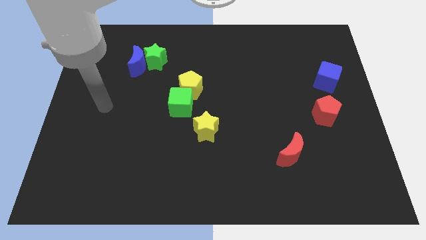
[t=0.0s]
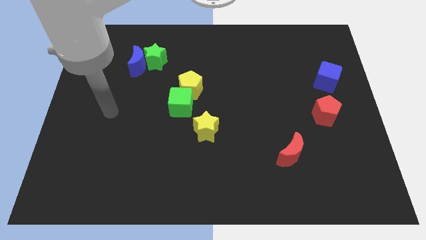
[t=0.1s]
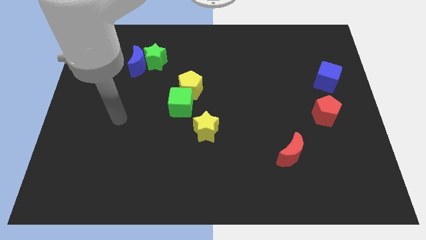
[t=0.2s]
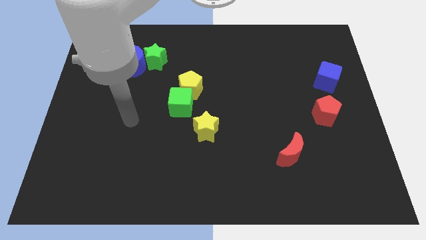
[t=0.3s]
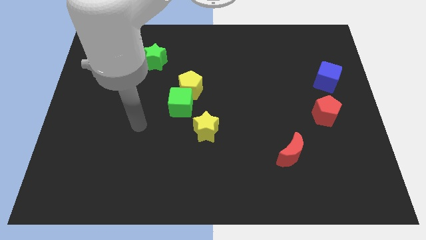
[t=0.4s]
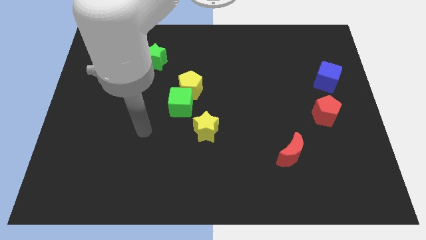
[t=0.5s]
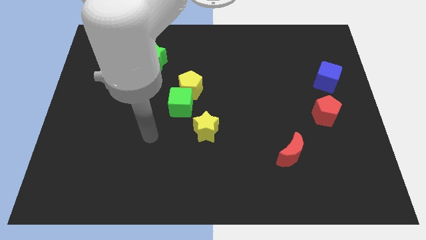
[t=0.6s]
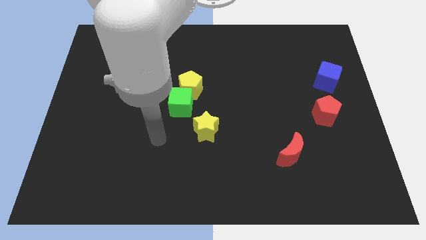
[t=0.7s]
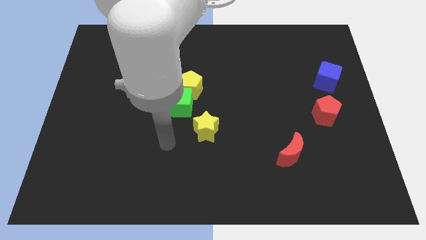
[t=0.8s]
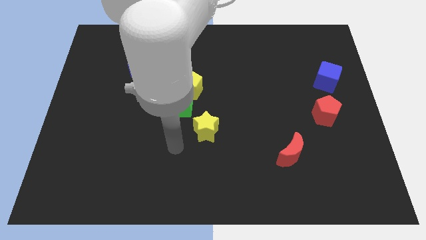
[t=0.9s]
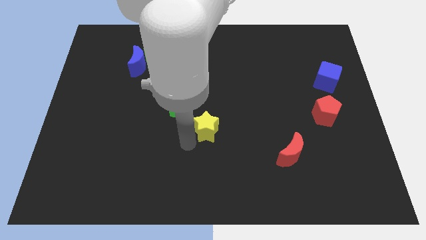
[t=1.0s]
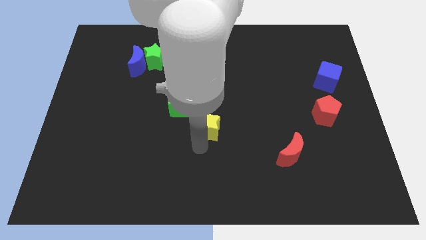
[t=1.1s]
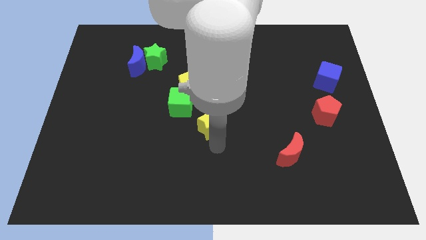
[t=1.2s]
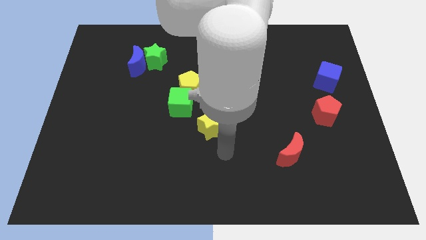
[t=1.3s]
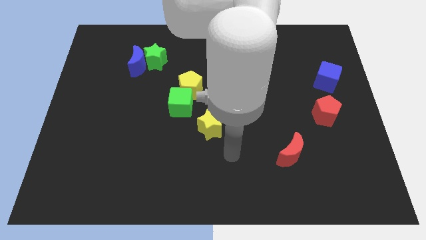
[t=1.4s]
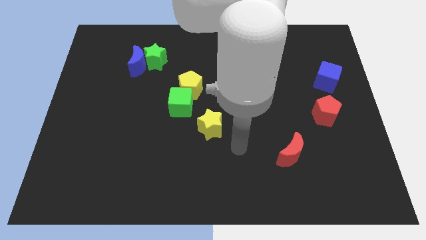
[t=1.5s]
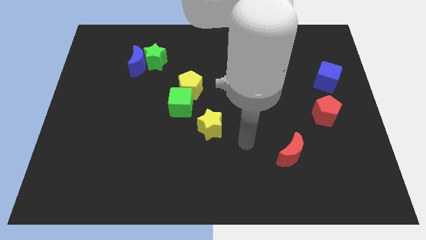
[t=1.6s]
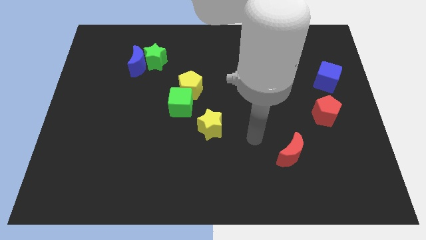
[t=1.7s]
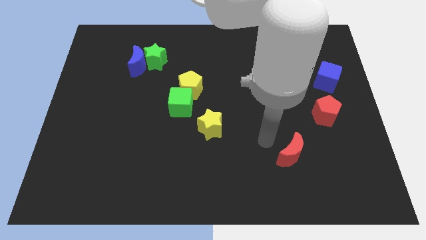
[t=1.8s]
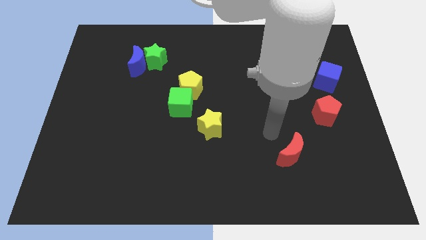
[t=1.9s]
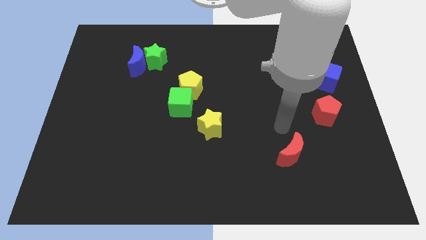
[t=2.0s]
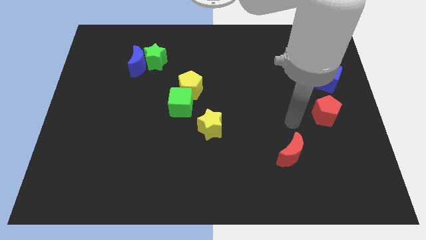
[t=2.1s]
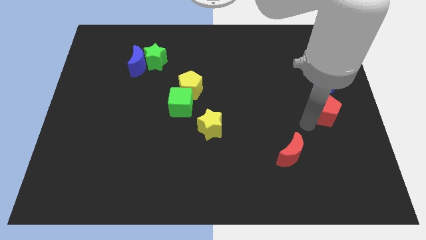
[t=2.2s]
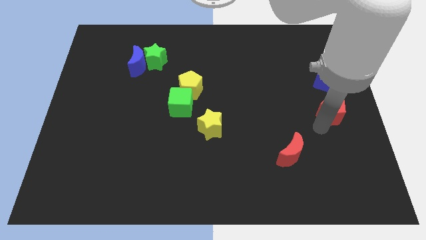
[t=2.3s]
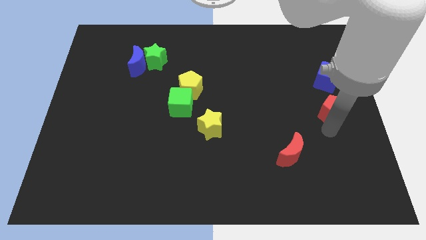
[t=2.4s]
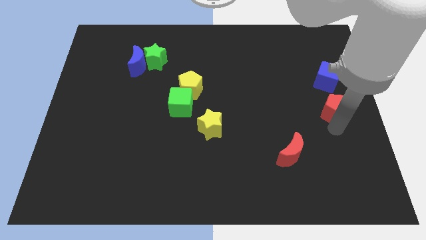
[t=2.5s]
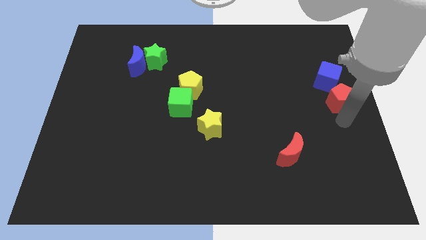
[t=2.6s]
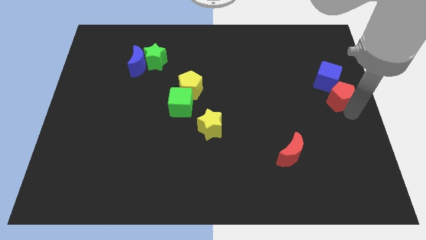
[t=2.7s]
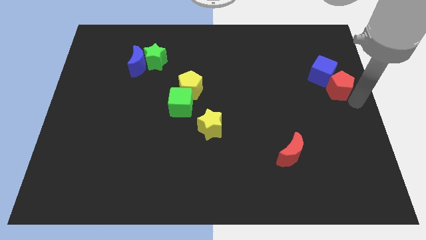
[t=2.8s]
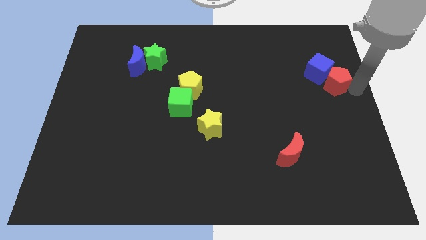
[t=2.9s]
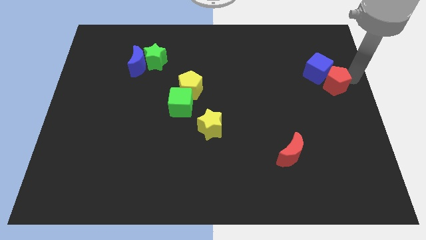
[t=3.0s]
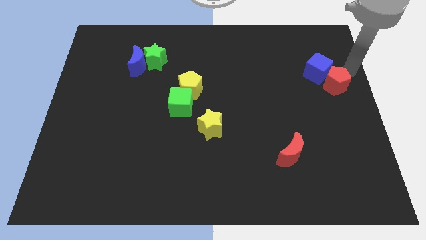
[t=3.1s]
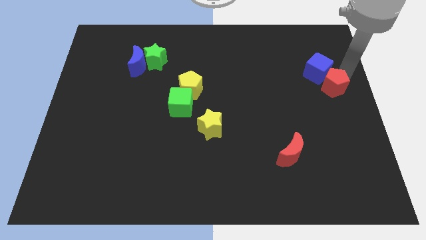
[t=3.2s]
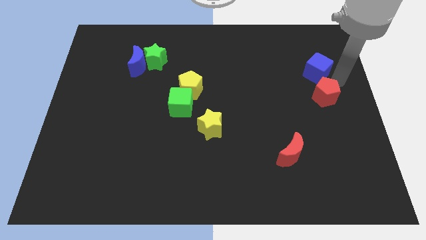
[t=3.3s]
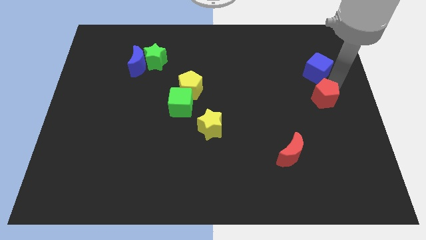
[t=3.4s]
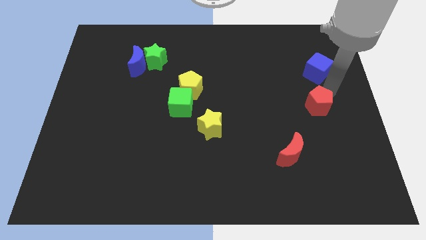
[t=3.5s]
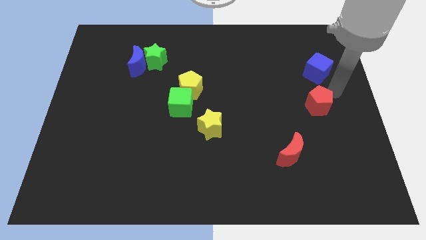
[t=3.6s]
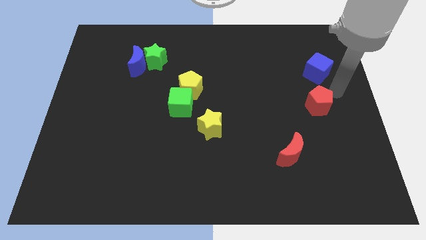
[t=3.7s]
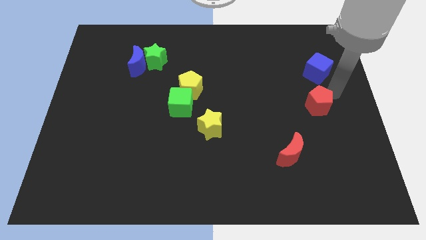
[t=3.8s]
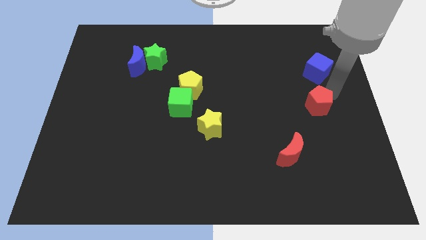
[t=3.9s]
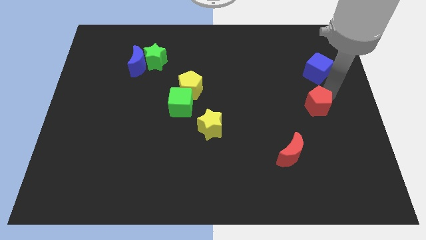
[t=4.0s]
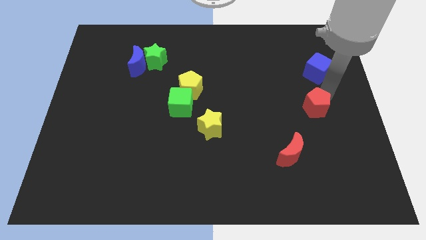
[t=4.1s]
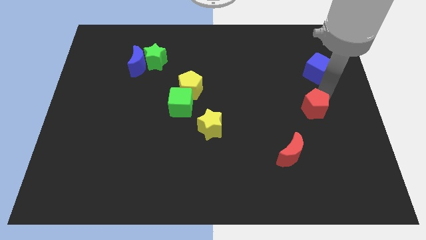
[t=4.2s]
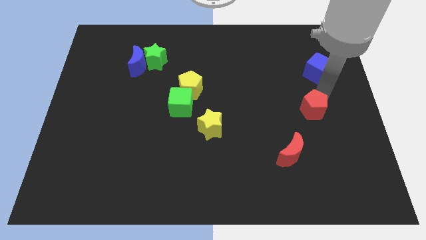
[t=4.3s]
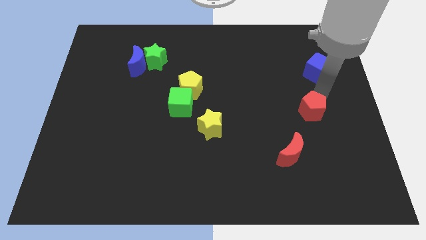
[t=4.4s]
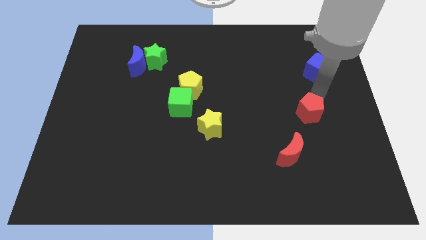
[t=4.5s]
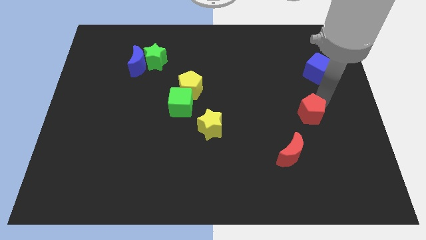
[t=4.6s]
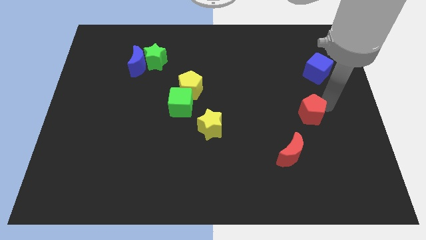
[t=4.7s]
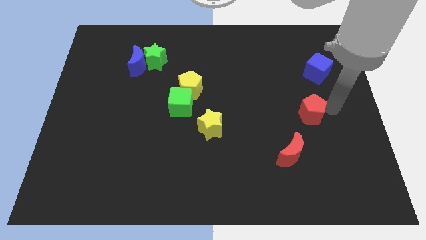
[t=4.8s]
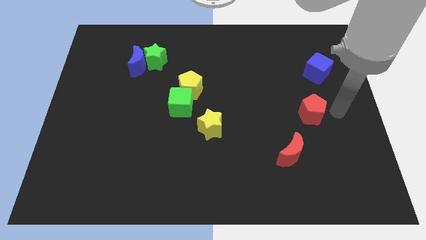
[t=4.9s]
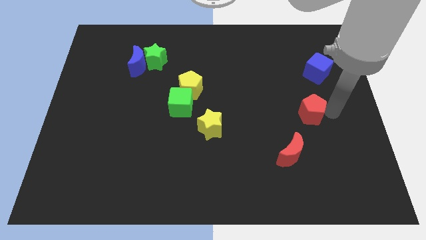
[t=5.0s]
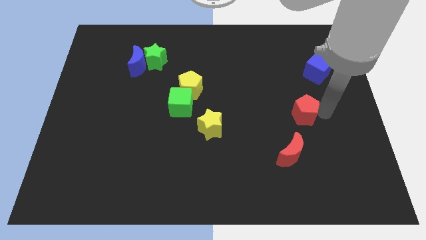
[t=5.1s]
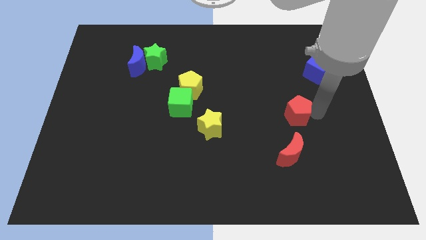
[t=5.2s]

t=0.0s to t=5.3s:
move the red pentagon left a little bit

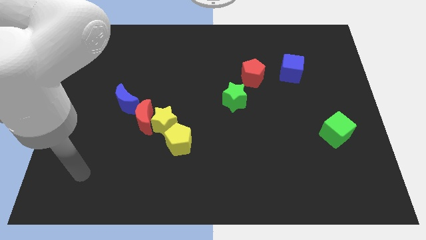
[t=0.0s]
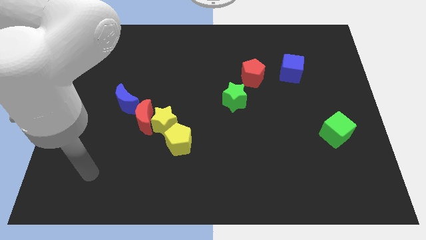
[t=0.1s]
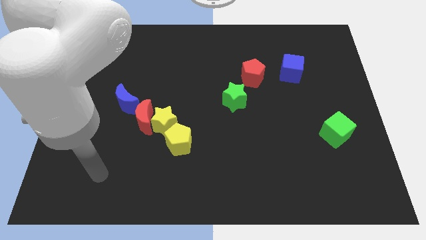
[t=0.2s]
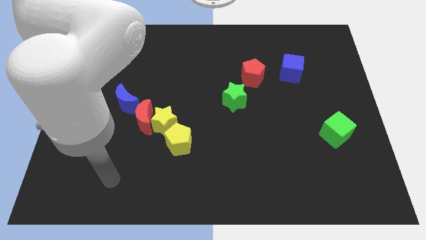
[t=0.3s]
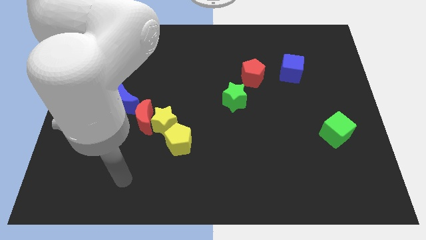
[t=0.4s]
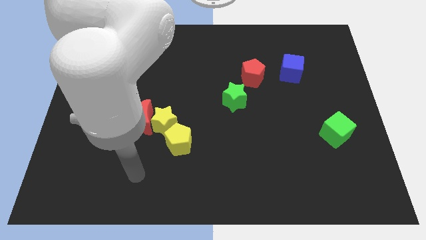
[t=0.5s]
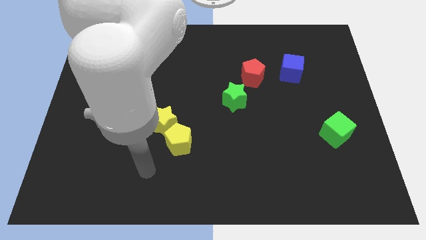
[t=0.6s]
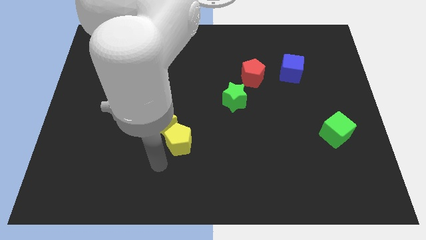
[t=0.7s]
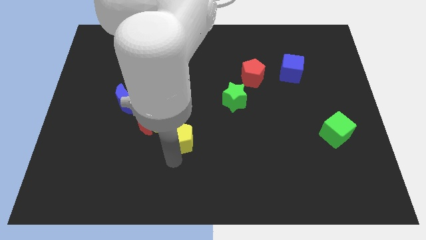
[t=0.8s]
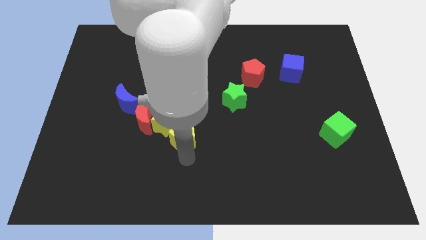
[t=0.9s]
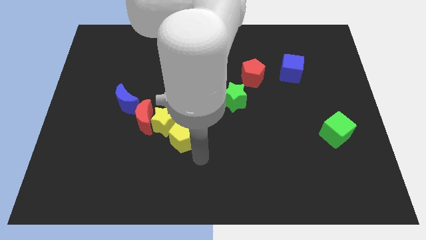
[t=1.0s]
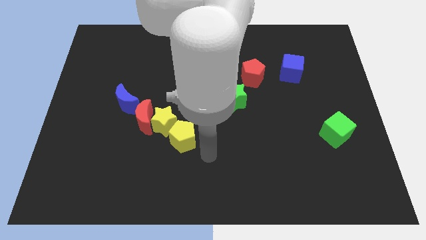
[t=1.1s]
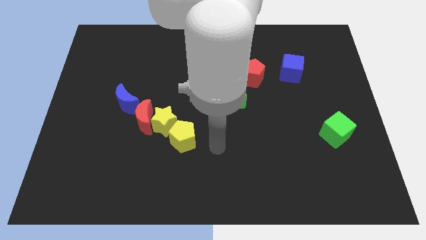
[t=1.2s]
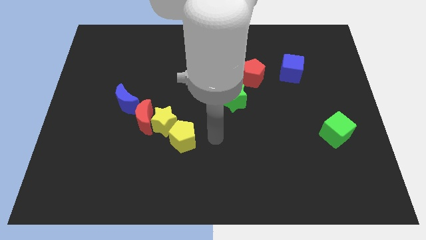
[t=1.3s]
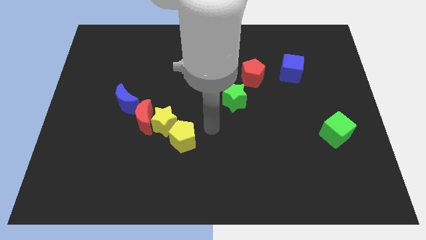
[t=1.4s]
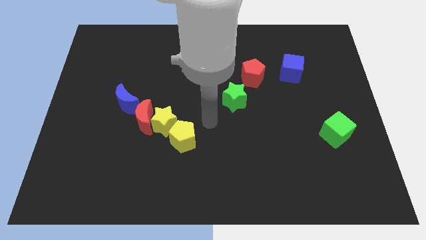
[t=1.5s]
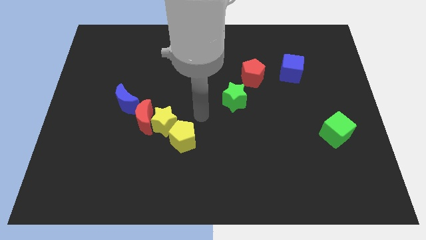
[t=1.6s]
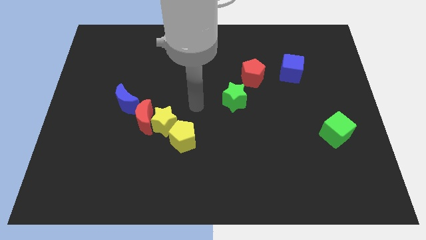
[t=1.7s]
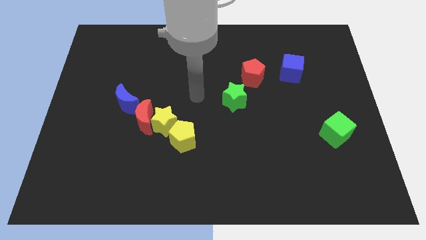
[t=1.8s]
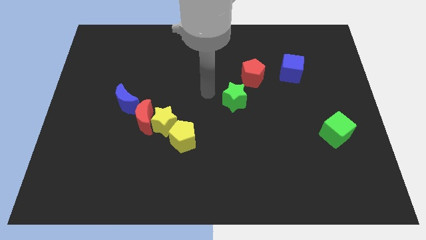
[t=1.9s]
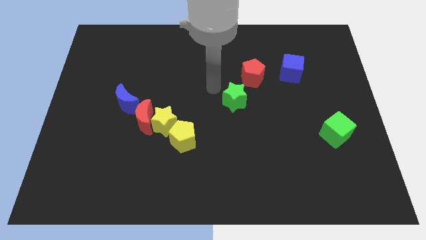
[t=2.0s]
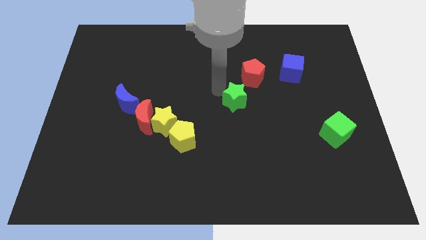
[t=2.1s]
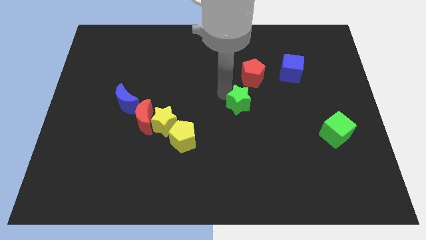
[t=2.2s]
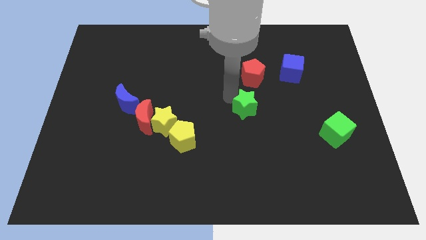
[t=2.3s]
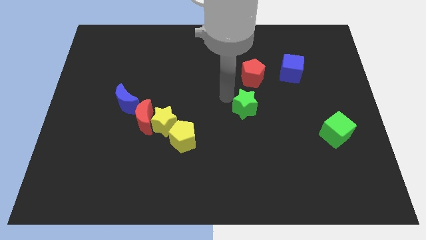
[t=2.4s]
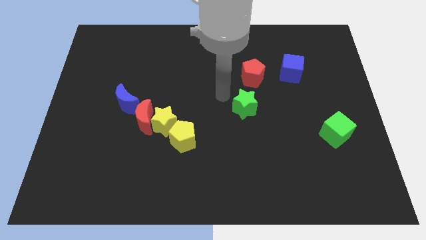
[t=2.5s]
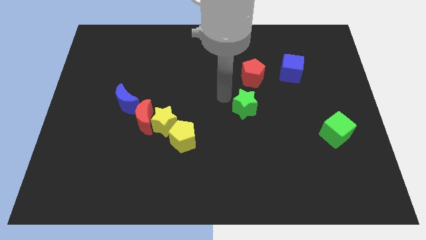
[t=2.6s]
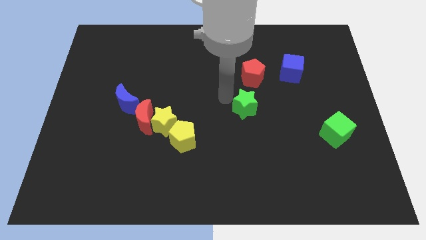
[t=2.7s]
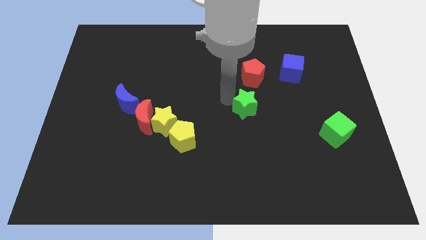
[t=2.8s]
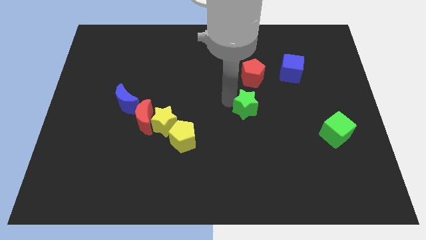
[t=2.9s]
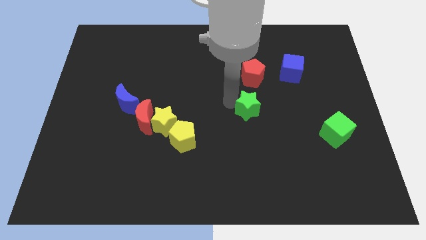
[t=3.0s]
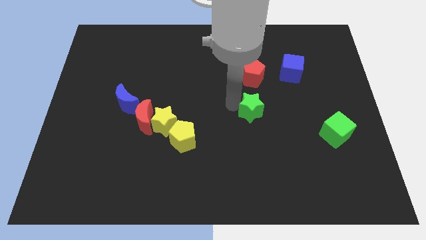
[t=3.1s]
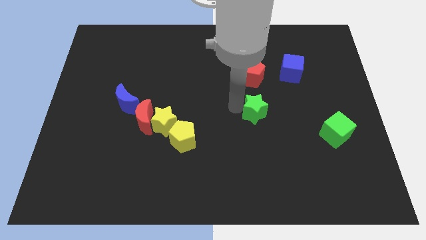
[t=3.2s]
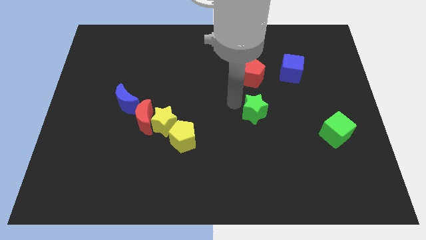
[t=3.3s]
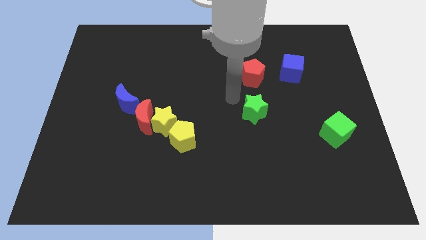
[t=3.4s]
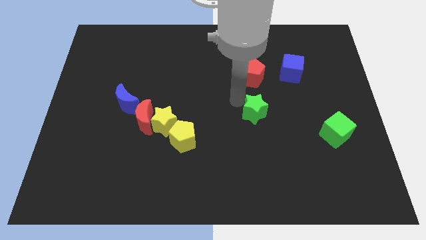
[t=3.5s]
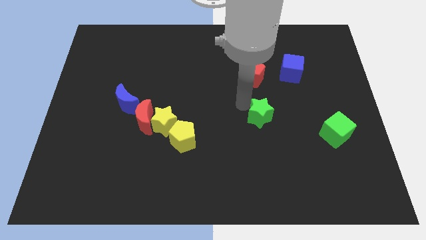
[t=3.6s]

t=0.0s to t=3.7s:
slightly push the green star diagonally downwards and to the right
